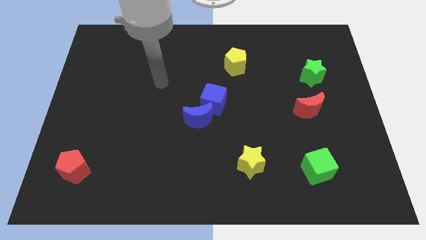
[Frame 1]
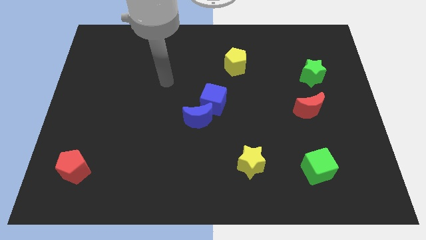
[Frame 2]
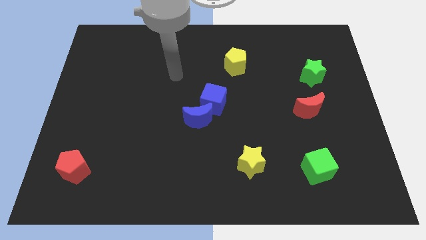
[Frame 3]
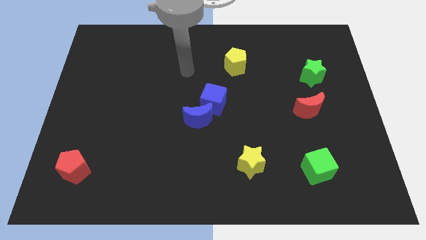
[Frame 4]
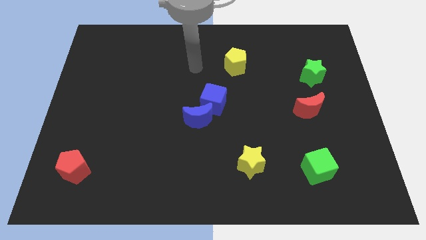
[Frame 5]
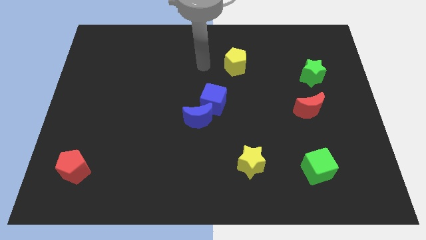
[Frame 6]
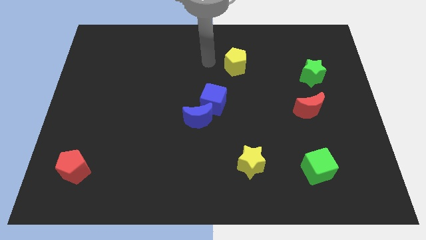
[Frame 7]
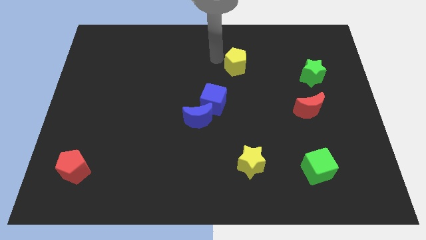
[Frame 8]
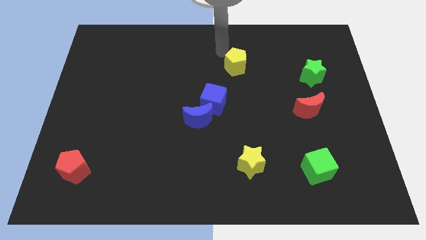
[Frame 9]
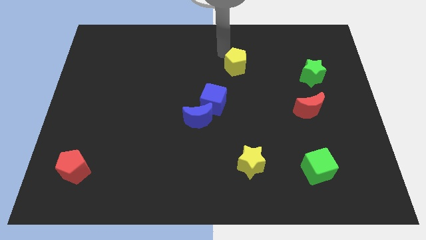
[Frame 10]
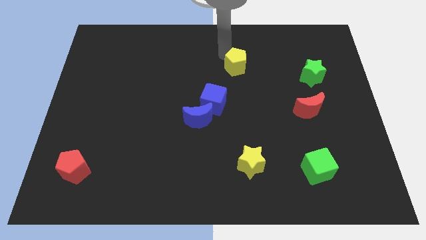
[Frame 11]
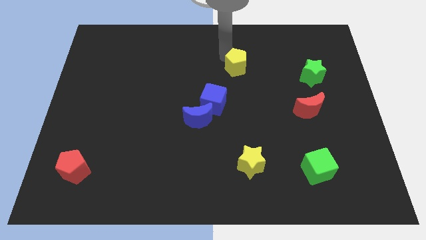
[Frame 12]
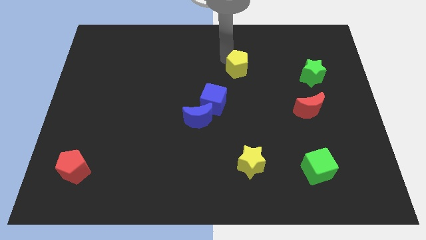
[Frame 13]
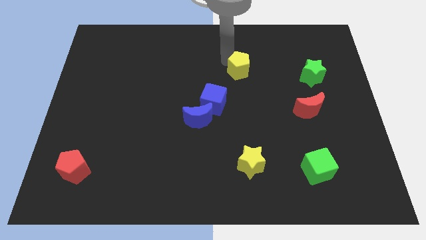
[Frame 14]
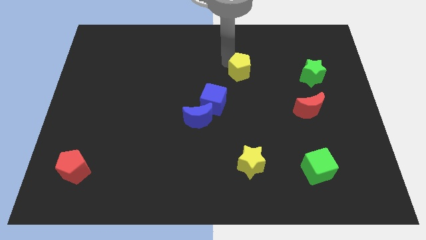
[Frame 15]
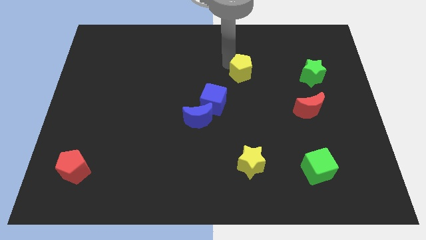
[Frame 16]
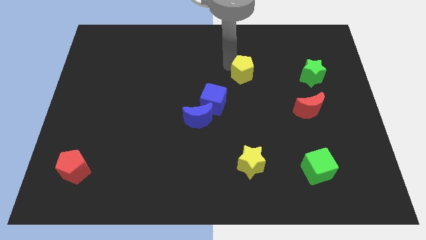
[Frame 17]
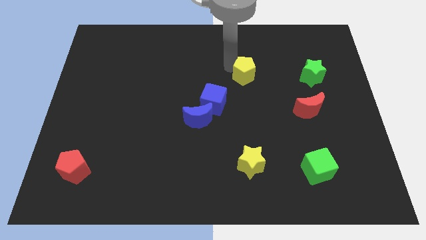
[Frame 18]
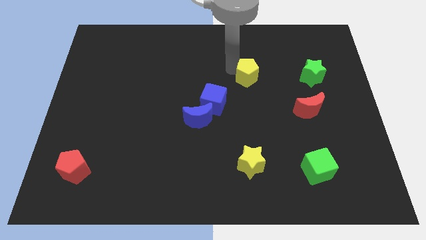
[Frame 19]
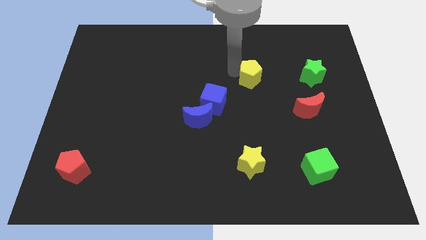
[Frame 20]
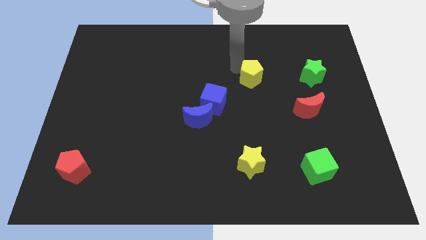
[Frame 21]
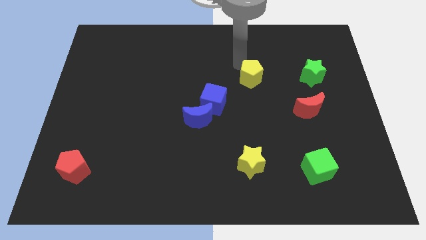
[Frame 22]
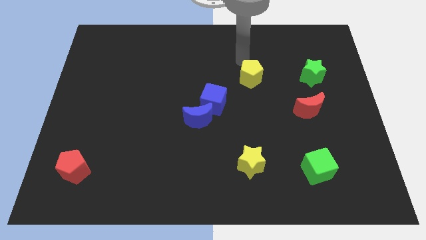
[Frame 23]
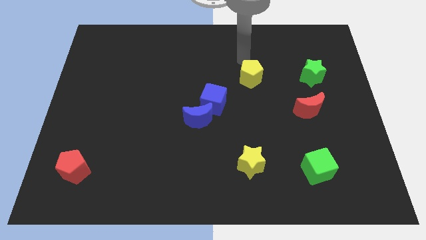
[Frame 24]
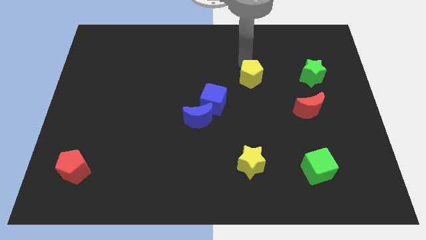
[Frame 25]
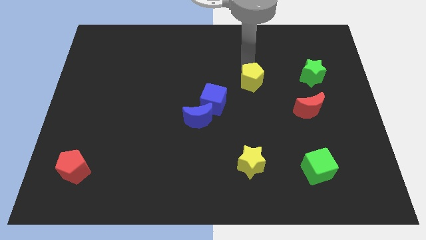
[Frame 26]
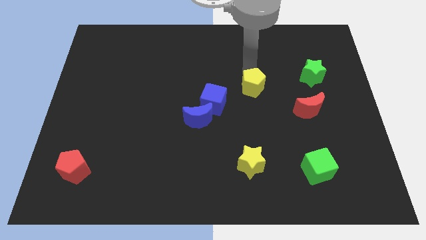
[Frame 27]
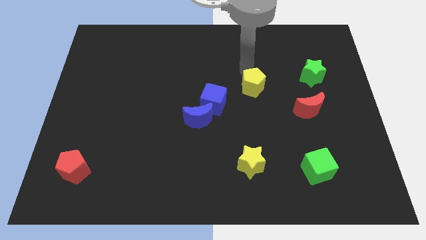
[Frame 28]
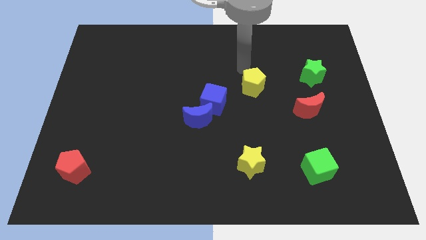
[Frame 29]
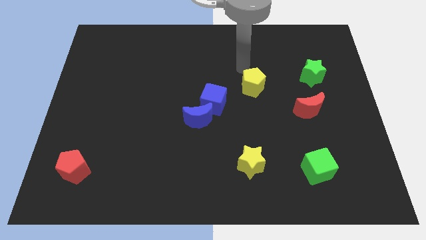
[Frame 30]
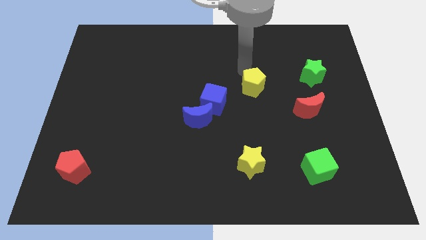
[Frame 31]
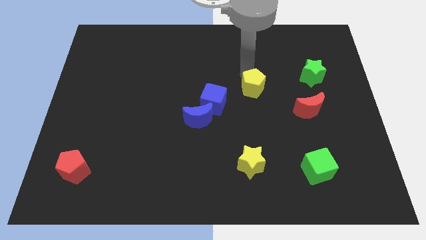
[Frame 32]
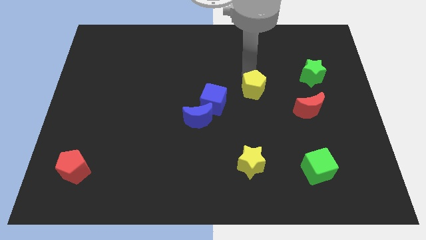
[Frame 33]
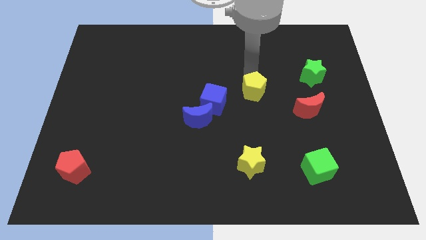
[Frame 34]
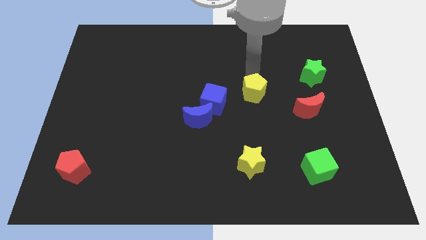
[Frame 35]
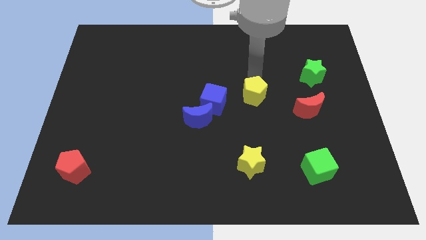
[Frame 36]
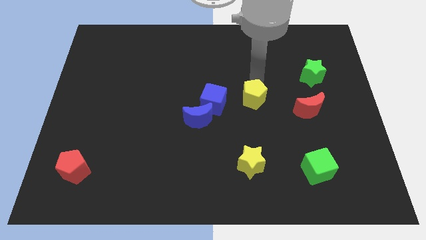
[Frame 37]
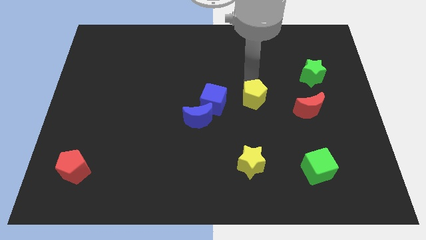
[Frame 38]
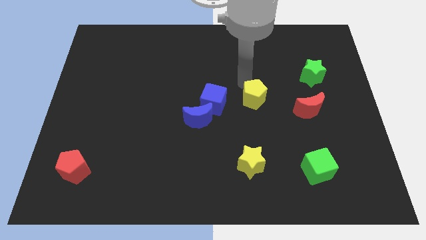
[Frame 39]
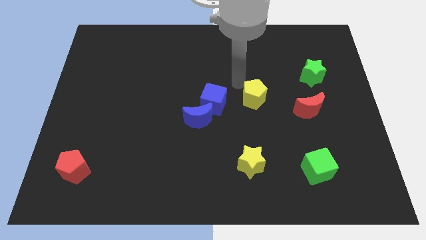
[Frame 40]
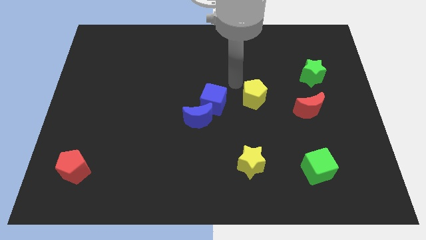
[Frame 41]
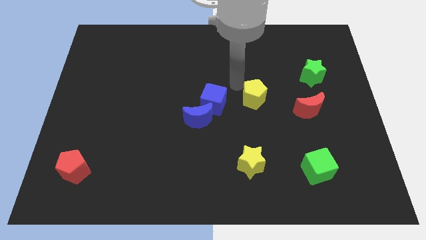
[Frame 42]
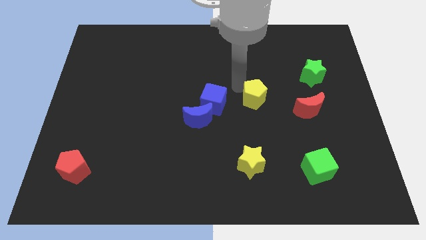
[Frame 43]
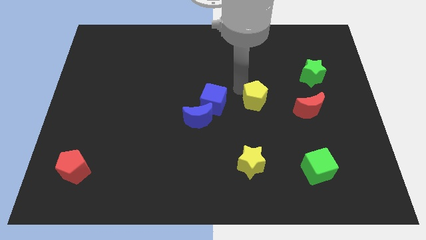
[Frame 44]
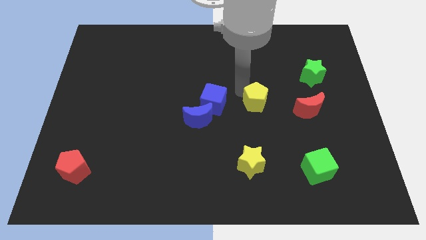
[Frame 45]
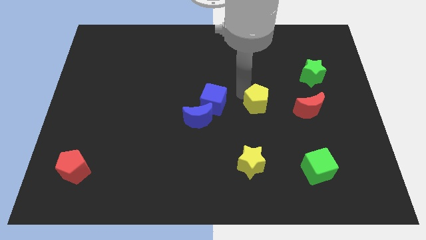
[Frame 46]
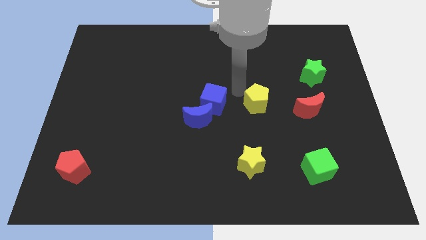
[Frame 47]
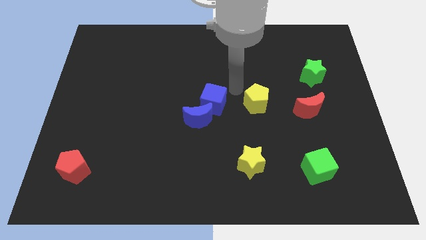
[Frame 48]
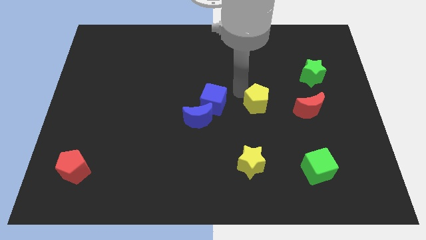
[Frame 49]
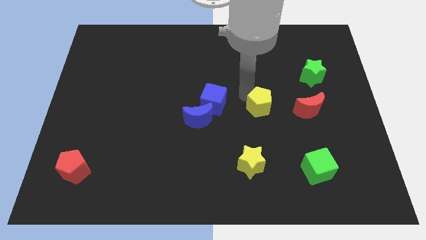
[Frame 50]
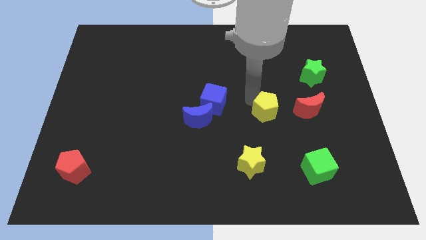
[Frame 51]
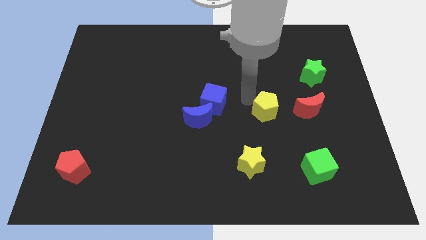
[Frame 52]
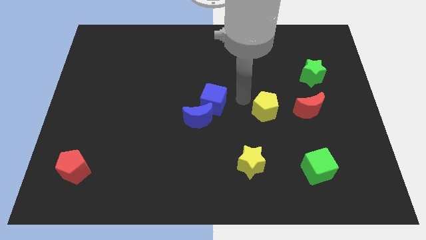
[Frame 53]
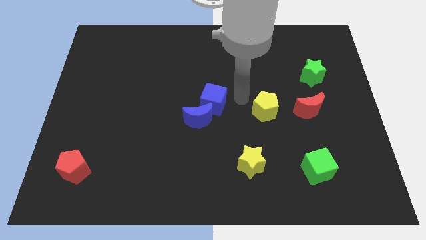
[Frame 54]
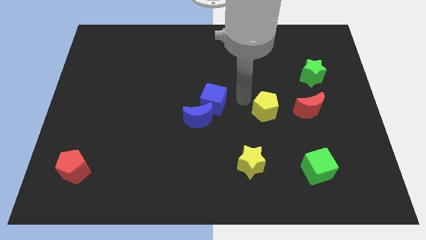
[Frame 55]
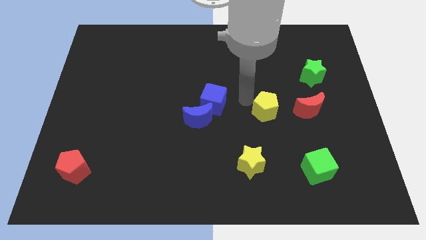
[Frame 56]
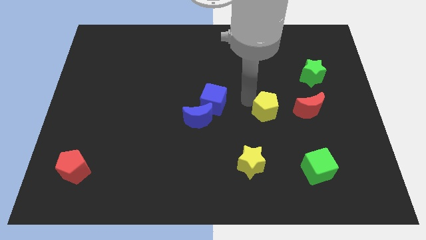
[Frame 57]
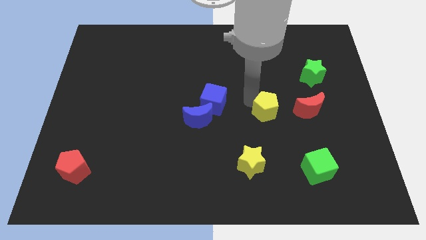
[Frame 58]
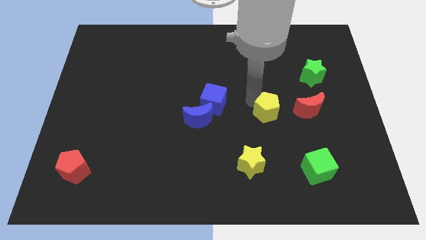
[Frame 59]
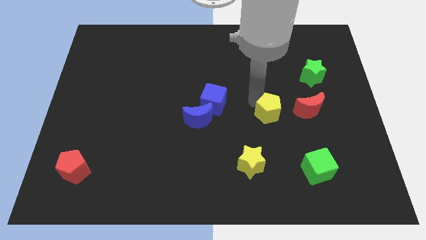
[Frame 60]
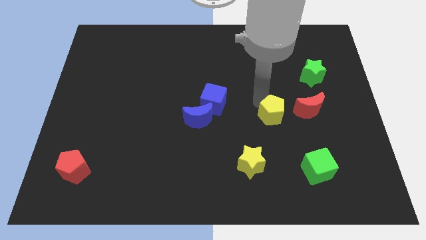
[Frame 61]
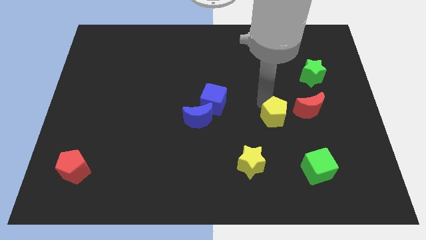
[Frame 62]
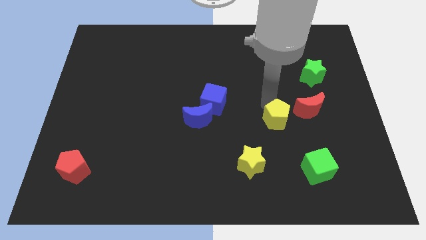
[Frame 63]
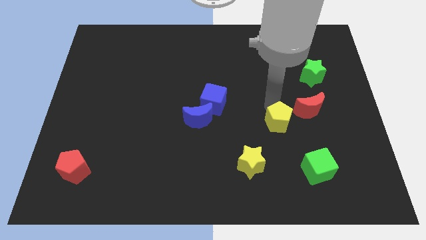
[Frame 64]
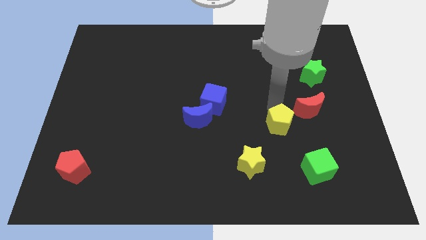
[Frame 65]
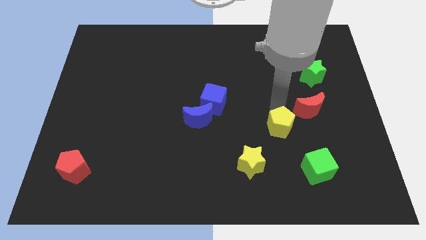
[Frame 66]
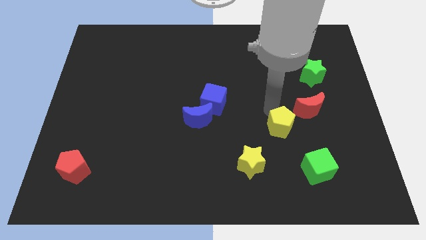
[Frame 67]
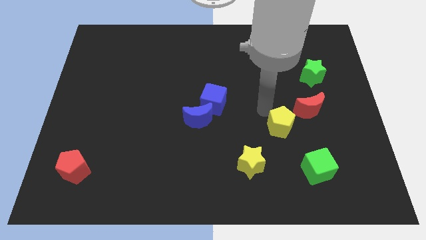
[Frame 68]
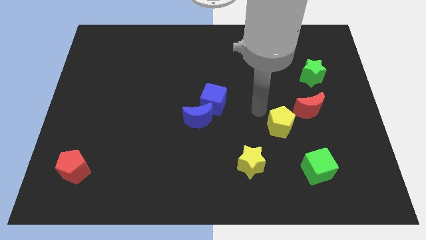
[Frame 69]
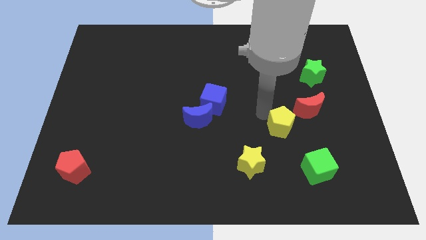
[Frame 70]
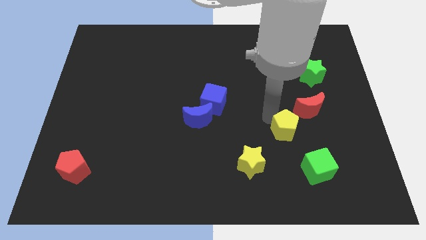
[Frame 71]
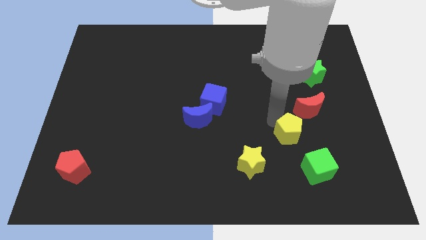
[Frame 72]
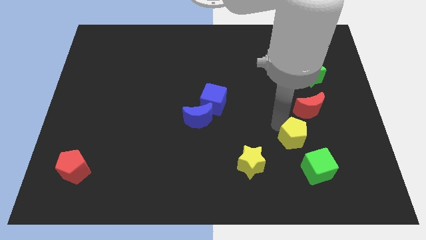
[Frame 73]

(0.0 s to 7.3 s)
move the yellow pentagon to the bottom of the red moon

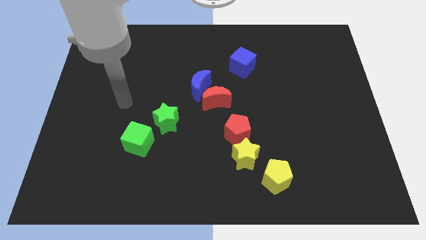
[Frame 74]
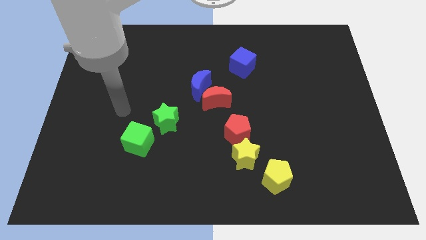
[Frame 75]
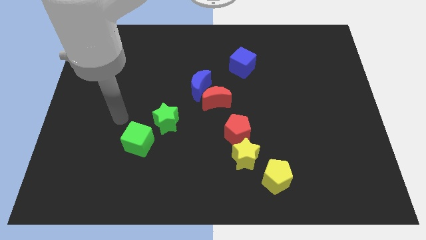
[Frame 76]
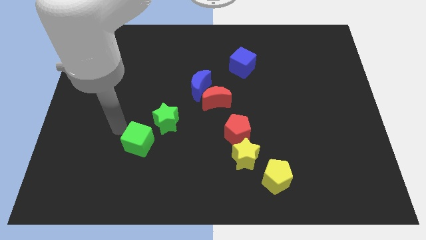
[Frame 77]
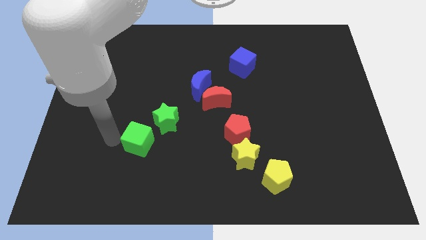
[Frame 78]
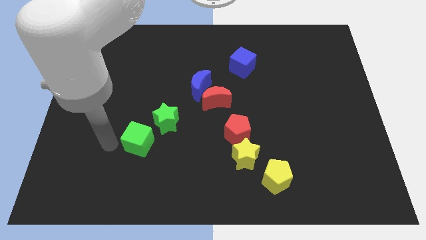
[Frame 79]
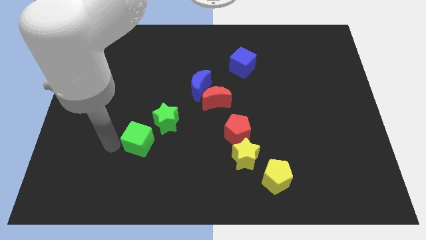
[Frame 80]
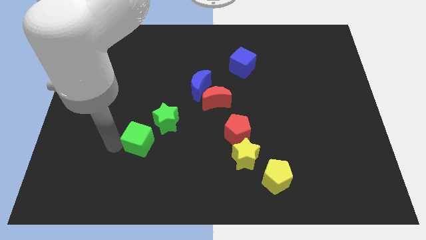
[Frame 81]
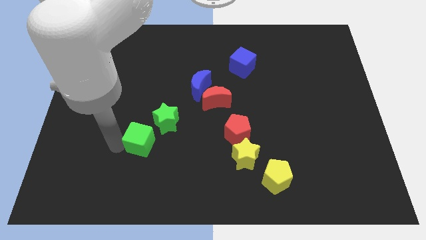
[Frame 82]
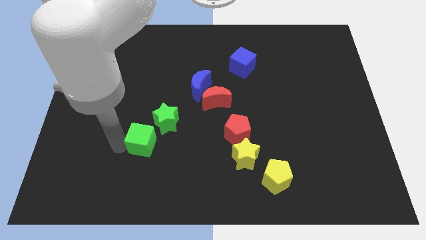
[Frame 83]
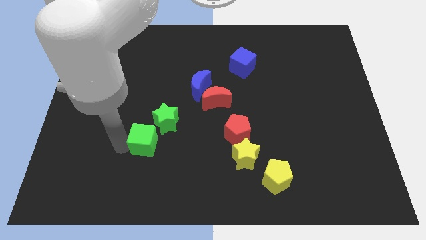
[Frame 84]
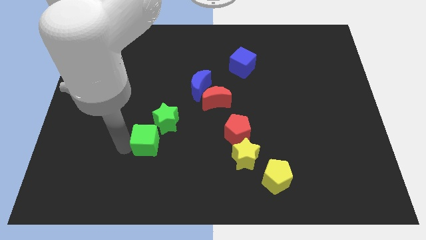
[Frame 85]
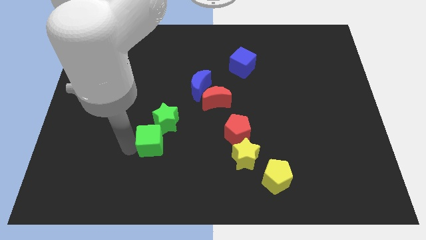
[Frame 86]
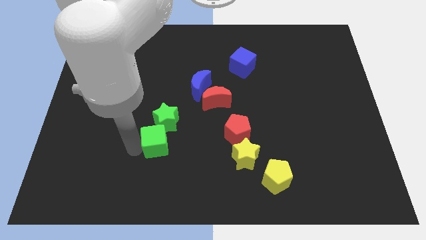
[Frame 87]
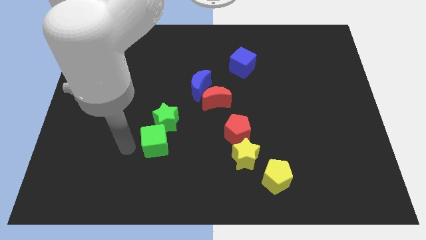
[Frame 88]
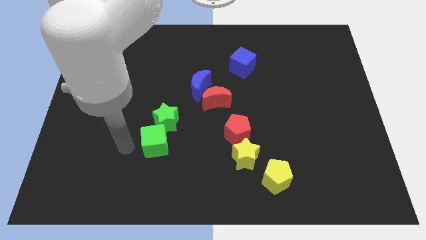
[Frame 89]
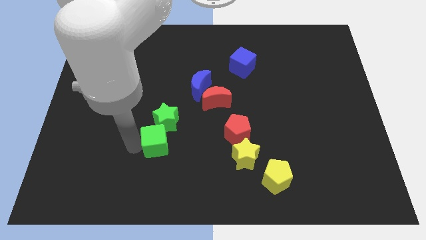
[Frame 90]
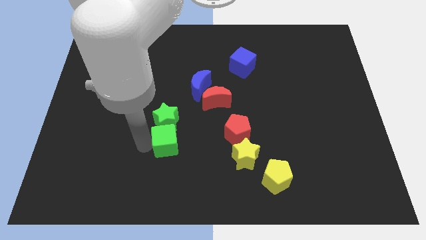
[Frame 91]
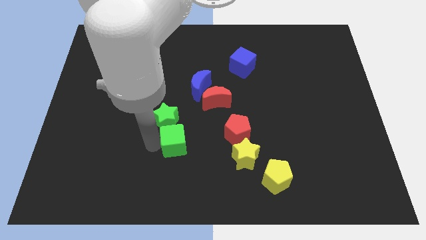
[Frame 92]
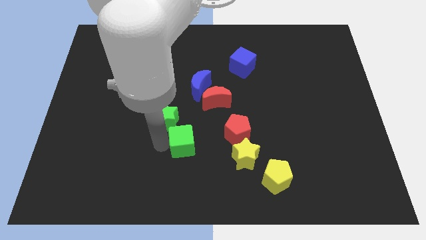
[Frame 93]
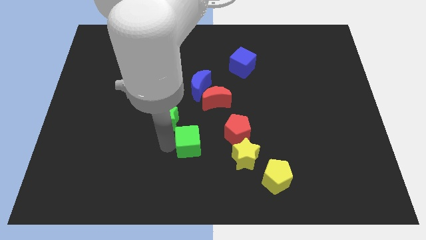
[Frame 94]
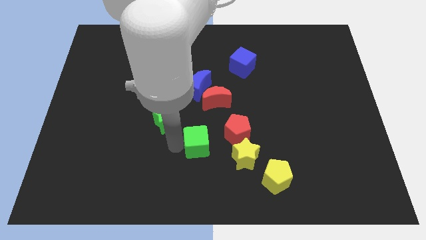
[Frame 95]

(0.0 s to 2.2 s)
slide the green cube to the bottom side of the red moon
